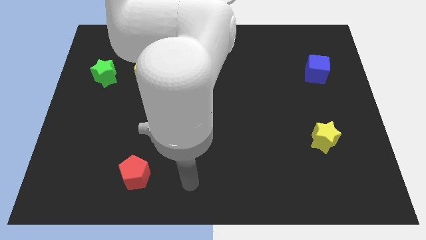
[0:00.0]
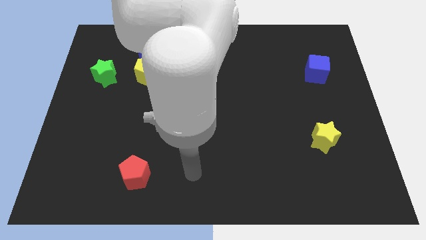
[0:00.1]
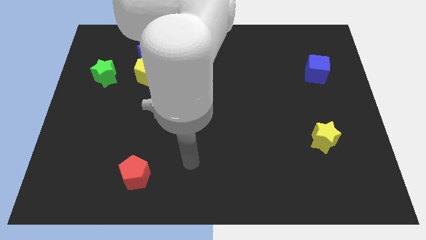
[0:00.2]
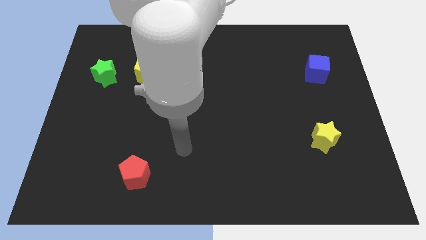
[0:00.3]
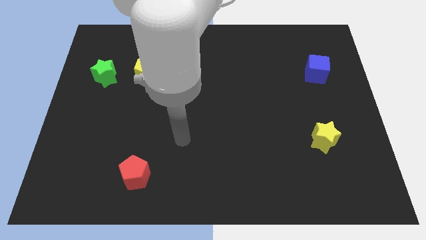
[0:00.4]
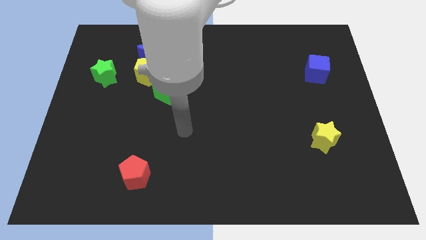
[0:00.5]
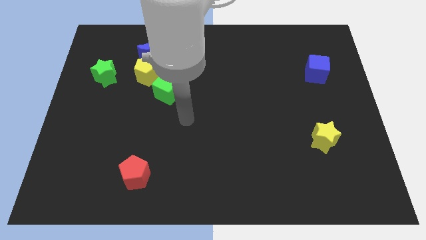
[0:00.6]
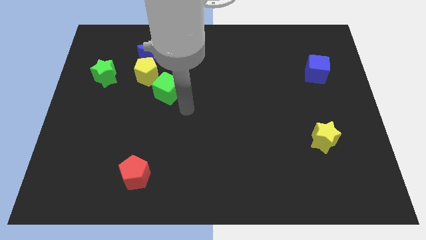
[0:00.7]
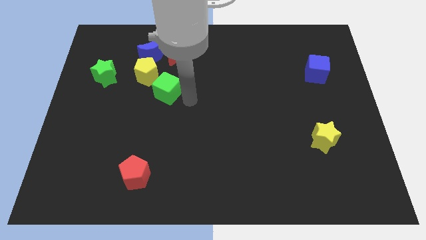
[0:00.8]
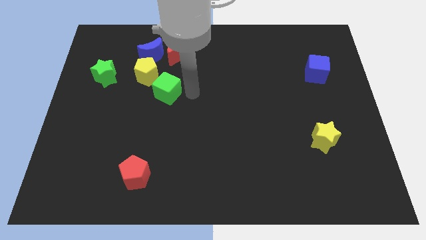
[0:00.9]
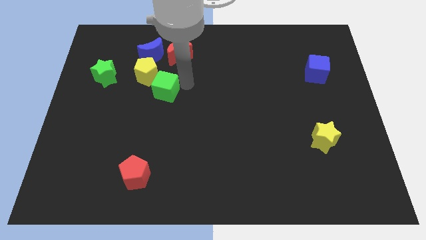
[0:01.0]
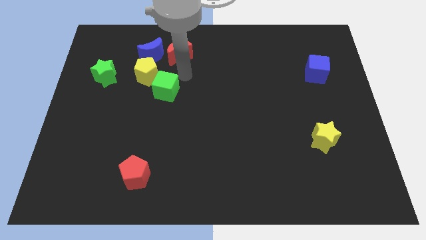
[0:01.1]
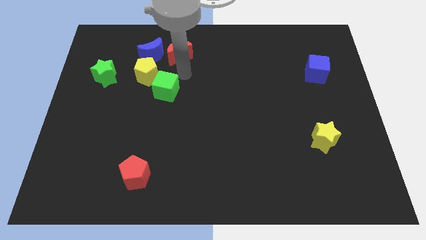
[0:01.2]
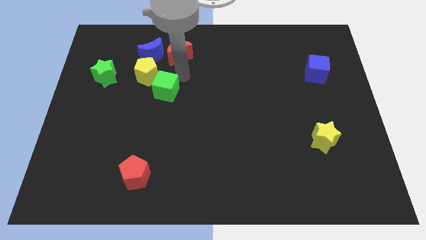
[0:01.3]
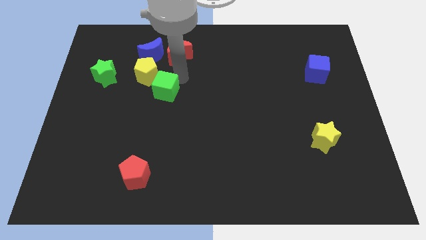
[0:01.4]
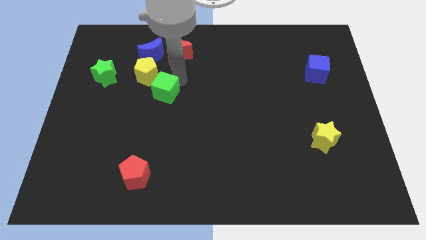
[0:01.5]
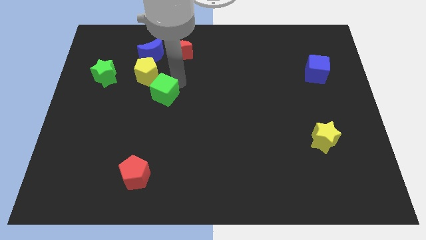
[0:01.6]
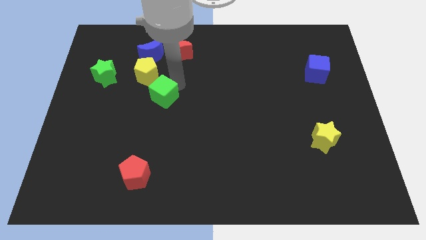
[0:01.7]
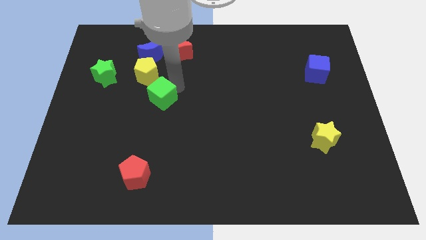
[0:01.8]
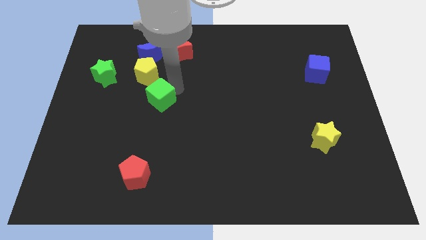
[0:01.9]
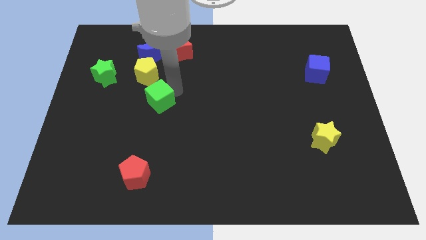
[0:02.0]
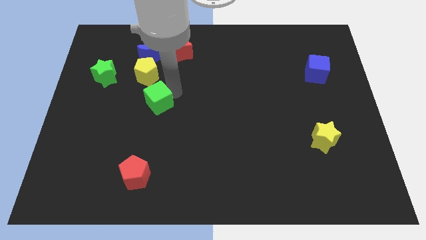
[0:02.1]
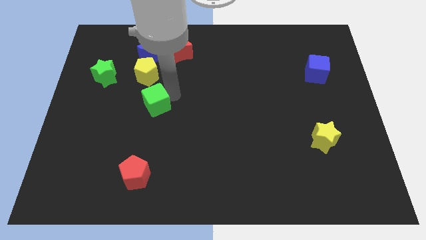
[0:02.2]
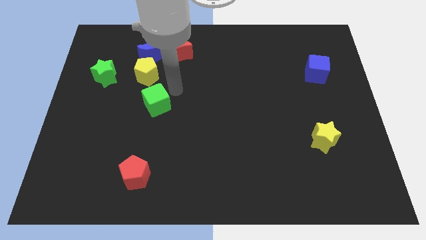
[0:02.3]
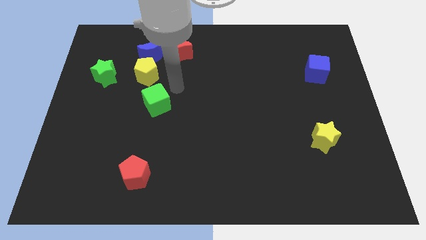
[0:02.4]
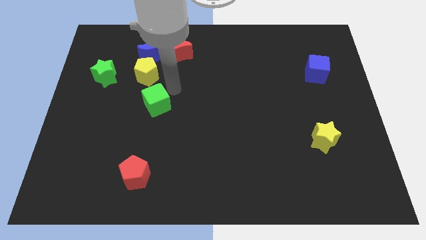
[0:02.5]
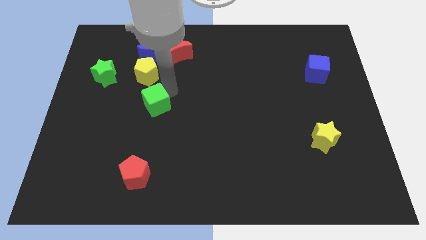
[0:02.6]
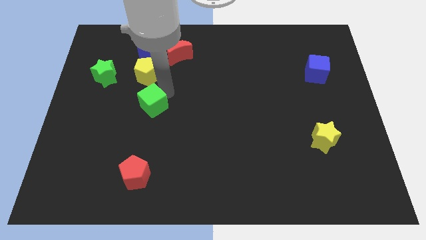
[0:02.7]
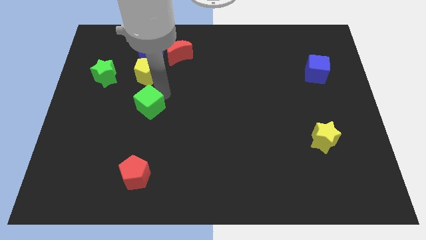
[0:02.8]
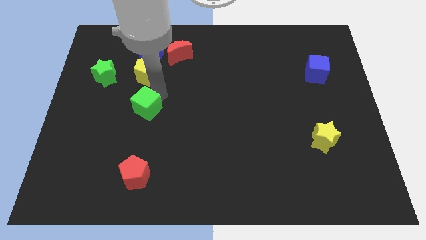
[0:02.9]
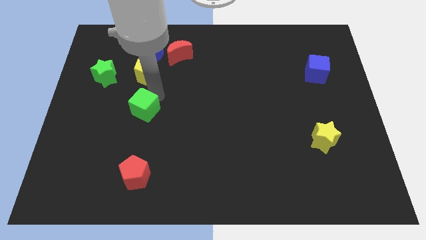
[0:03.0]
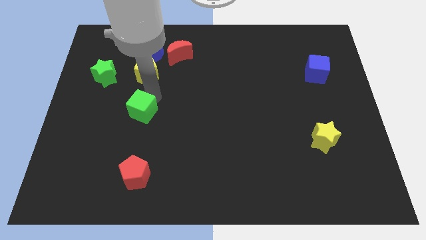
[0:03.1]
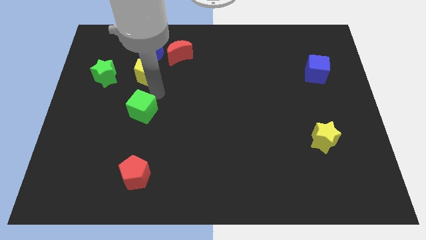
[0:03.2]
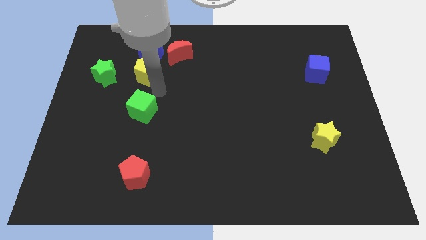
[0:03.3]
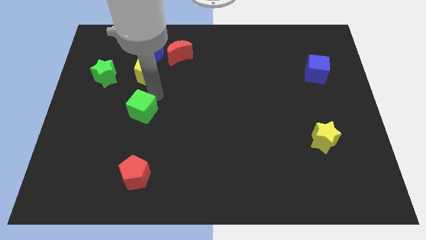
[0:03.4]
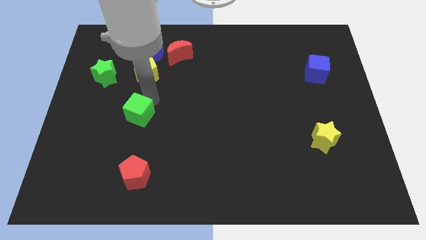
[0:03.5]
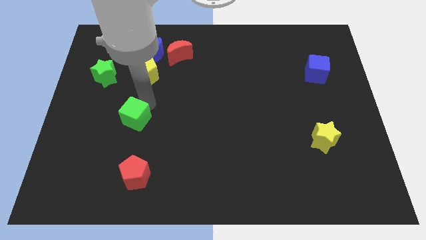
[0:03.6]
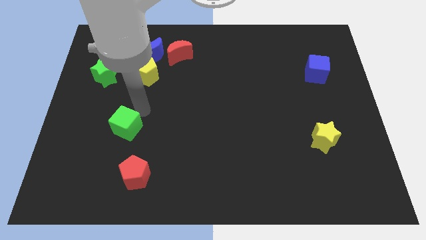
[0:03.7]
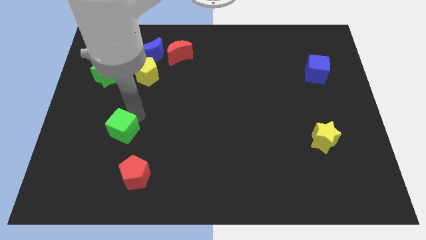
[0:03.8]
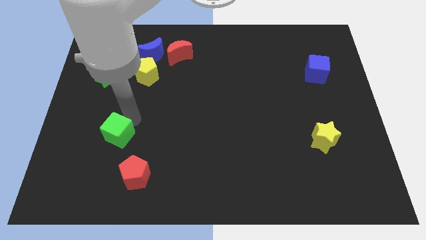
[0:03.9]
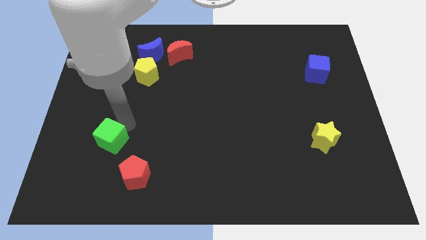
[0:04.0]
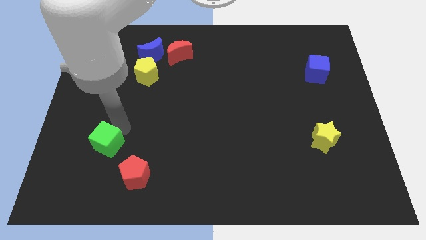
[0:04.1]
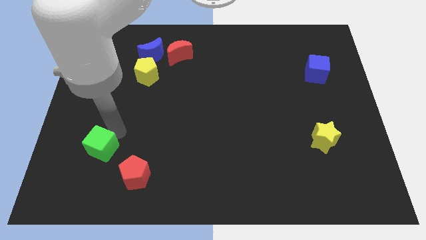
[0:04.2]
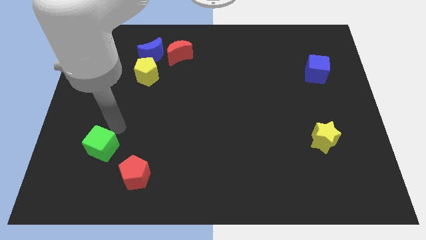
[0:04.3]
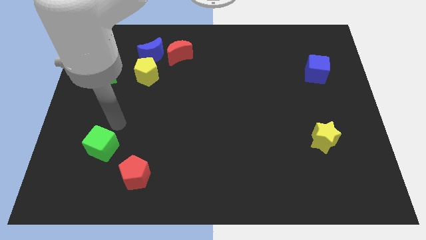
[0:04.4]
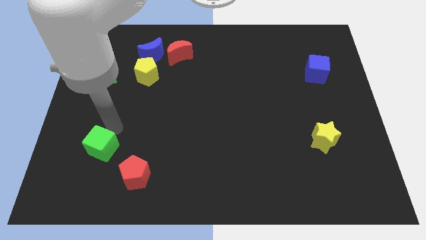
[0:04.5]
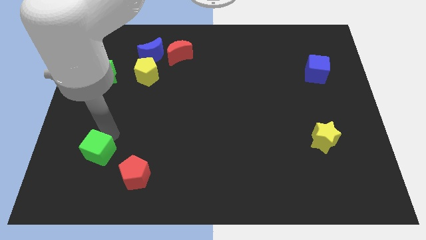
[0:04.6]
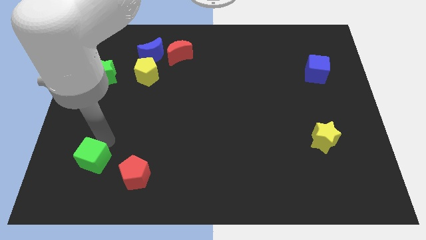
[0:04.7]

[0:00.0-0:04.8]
slide the green cube to the left side of the red pentagon

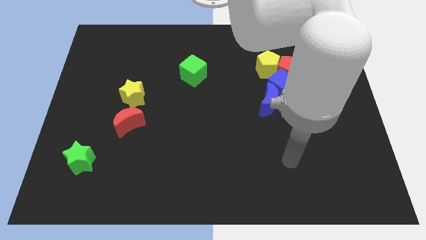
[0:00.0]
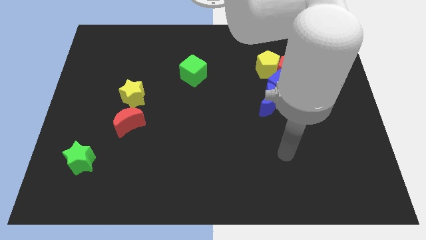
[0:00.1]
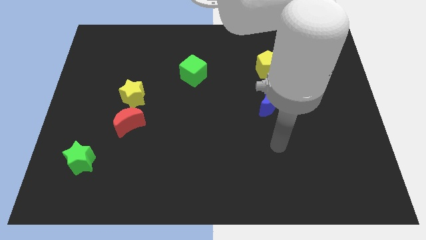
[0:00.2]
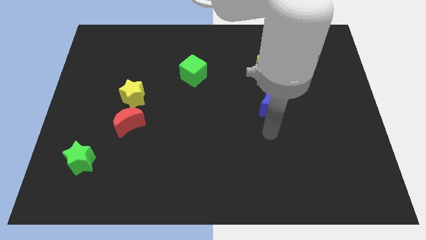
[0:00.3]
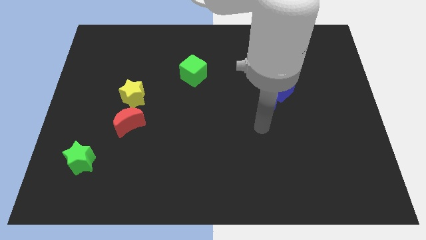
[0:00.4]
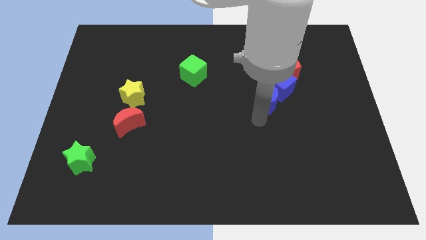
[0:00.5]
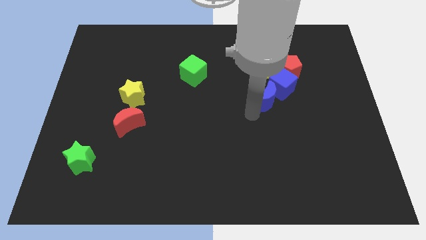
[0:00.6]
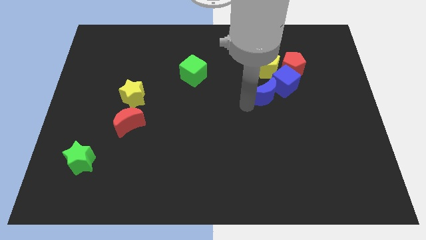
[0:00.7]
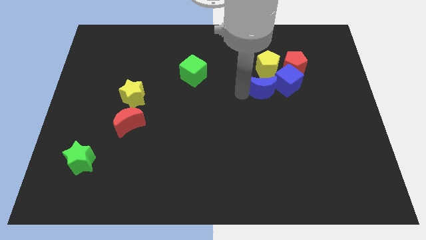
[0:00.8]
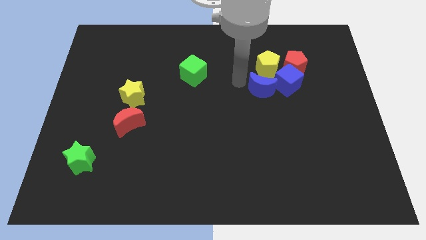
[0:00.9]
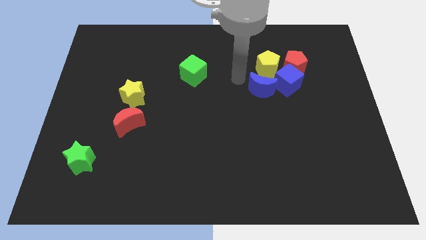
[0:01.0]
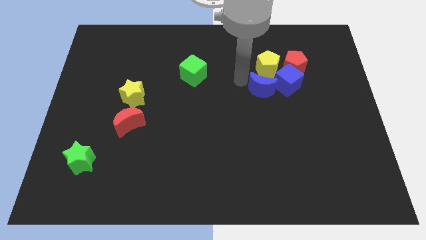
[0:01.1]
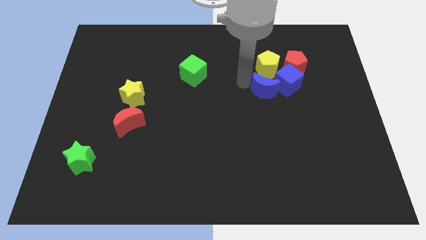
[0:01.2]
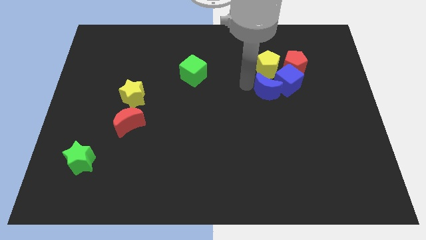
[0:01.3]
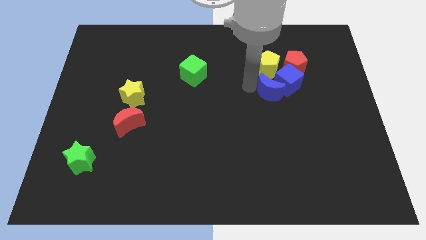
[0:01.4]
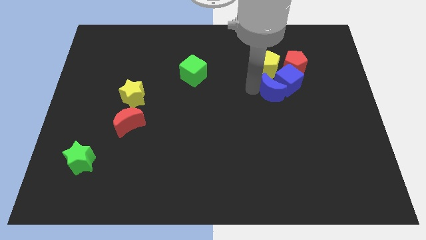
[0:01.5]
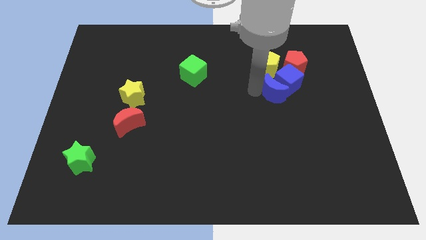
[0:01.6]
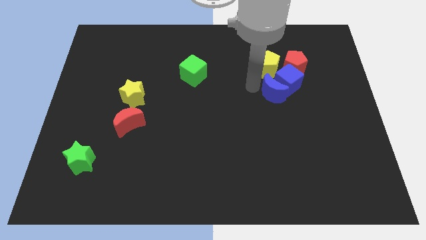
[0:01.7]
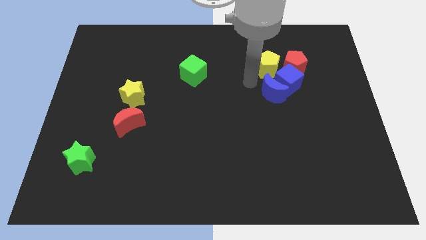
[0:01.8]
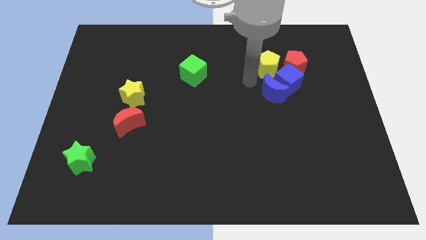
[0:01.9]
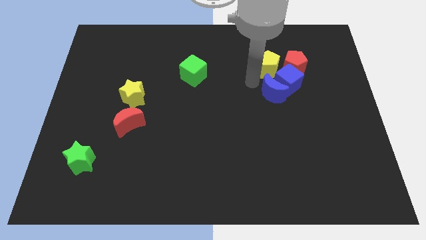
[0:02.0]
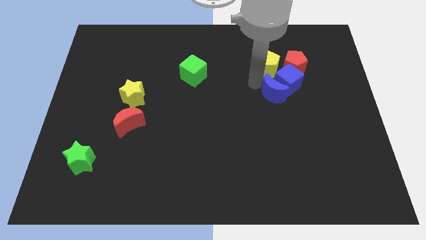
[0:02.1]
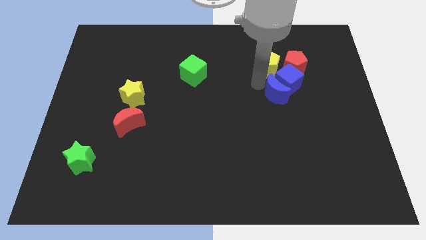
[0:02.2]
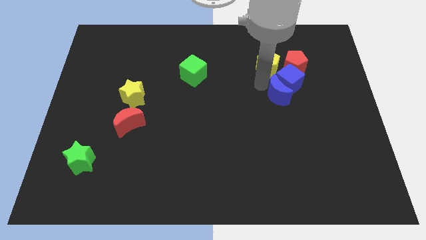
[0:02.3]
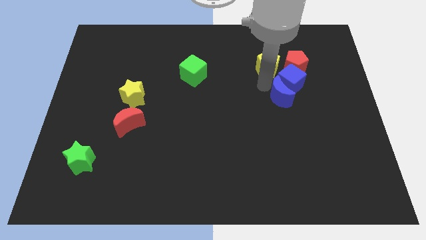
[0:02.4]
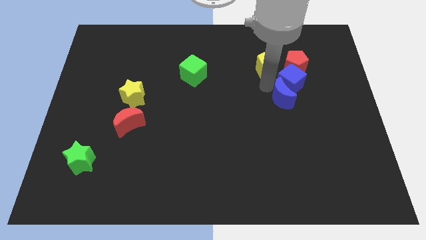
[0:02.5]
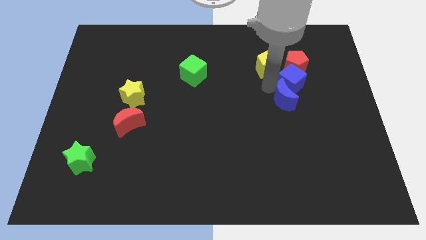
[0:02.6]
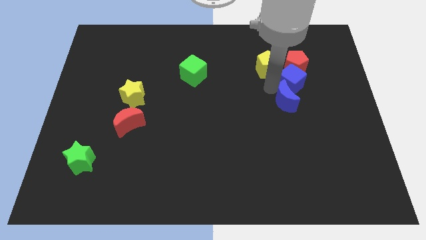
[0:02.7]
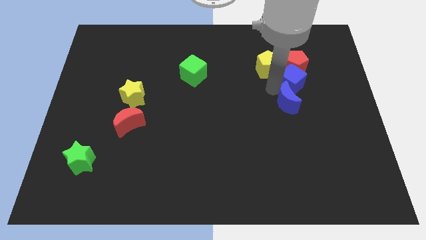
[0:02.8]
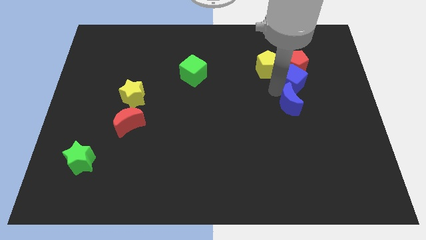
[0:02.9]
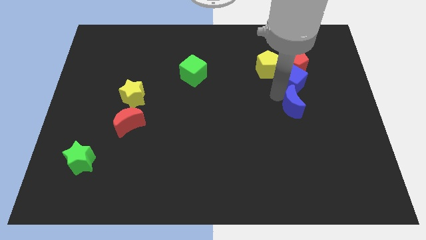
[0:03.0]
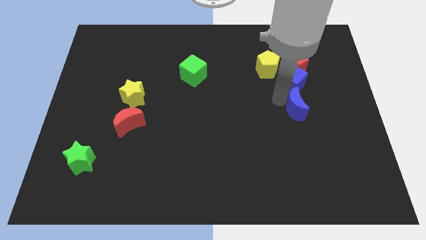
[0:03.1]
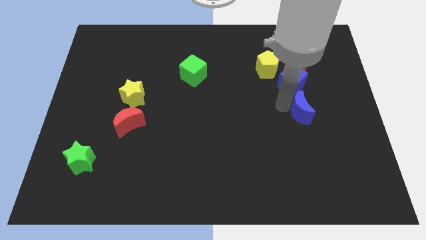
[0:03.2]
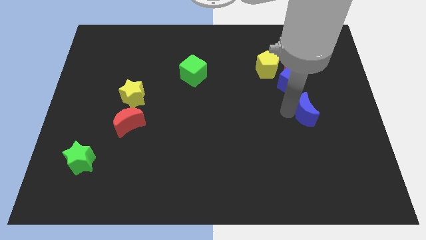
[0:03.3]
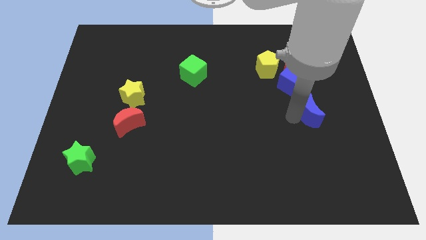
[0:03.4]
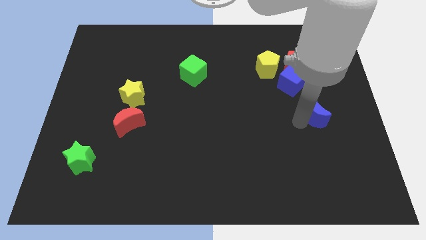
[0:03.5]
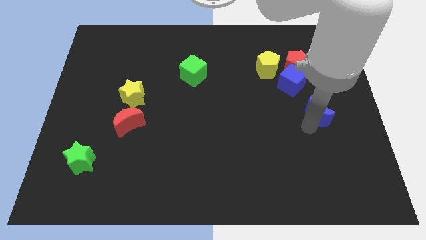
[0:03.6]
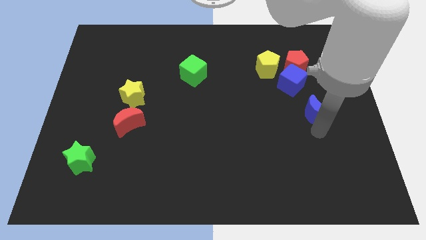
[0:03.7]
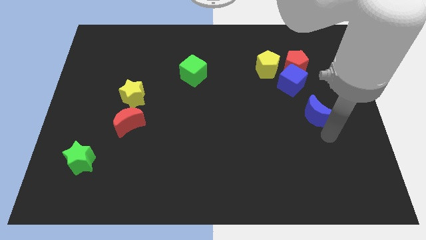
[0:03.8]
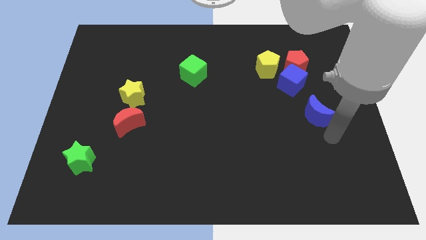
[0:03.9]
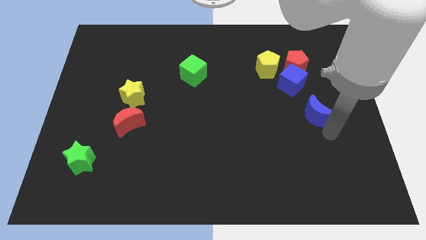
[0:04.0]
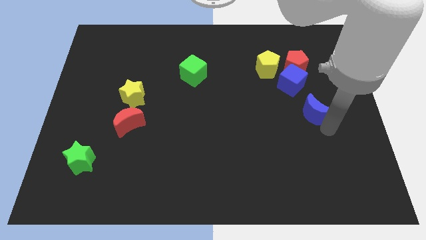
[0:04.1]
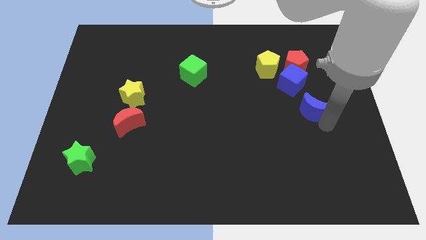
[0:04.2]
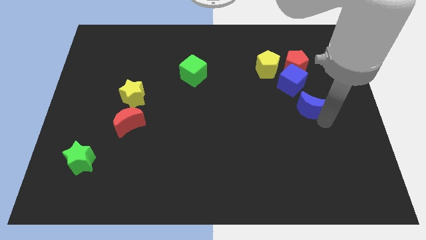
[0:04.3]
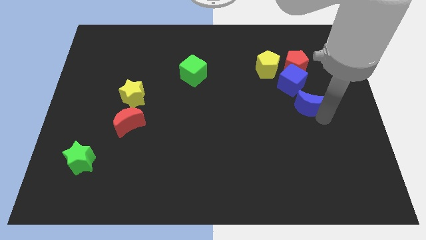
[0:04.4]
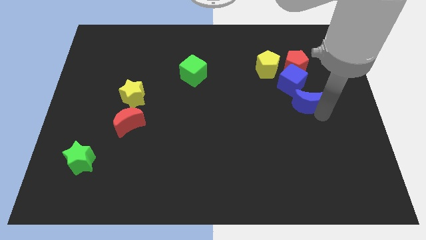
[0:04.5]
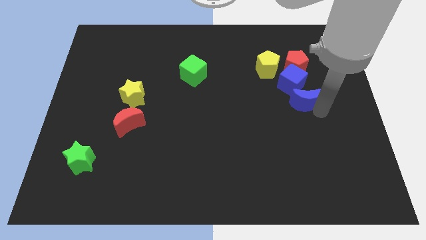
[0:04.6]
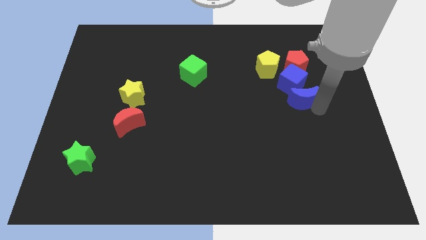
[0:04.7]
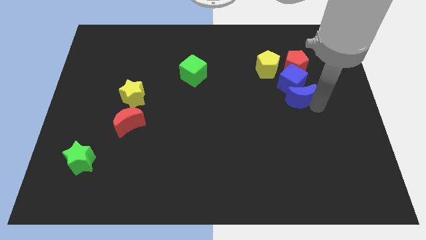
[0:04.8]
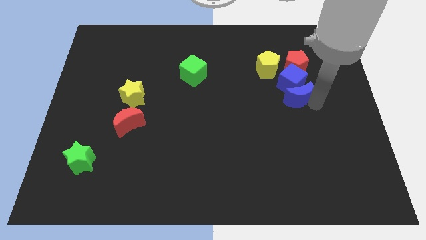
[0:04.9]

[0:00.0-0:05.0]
push the blue moon diagonally down and to the right of the yellow pentagon
